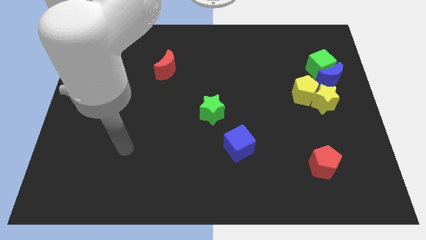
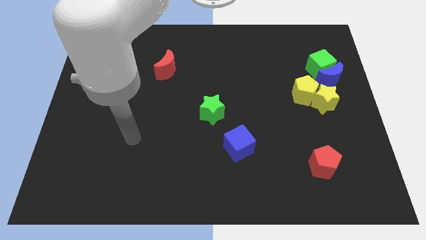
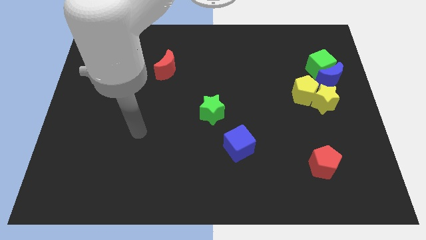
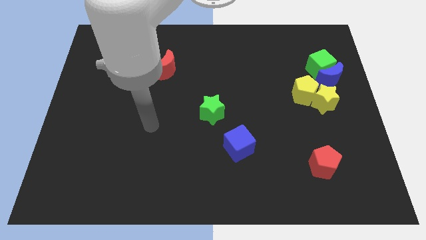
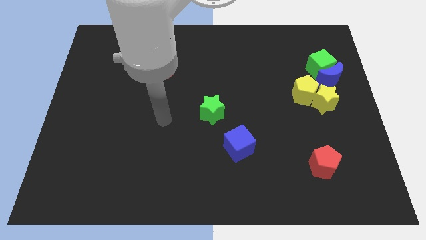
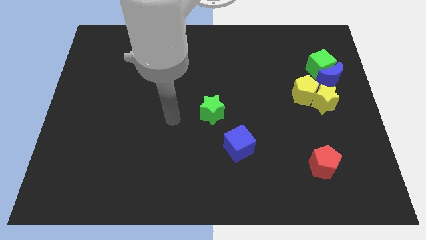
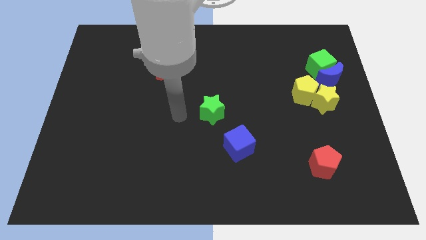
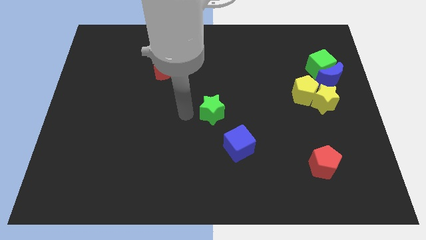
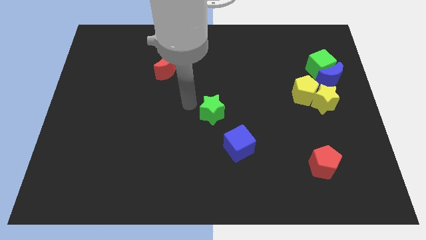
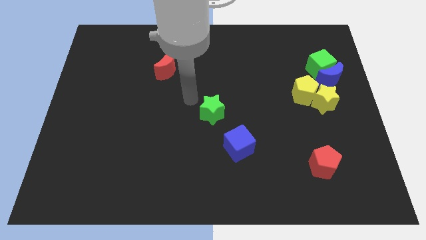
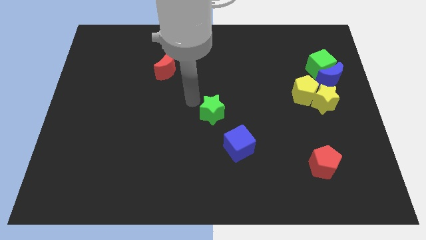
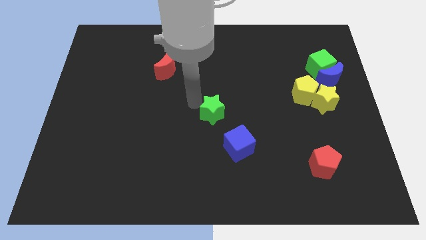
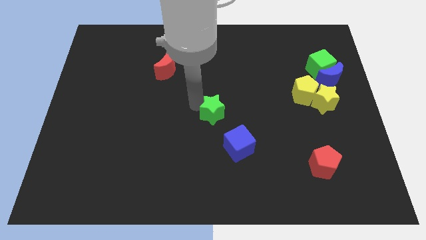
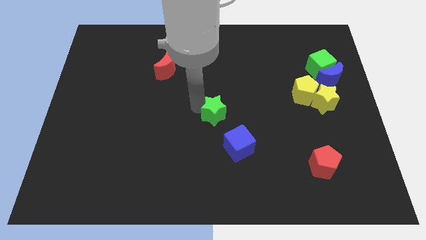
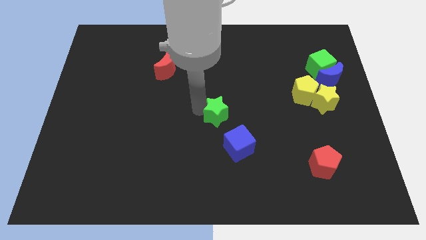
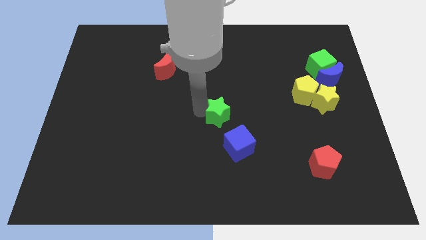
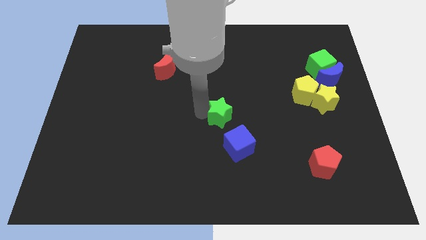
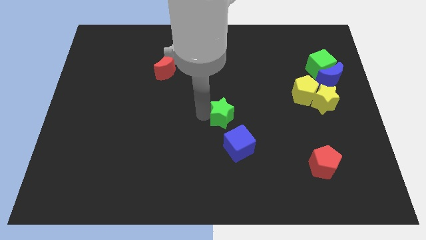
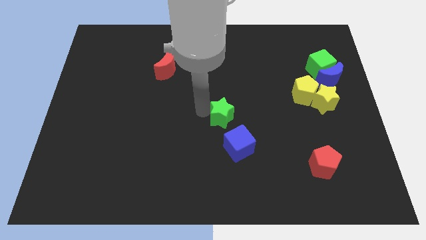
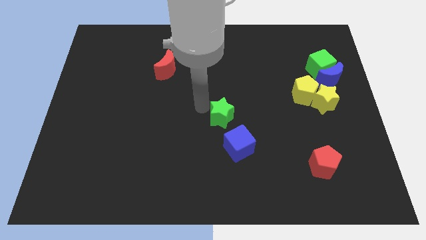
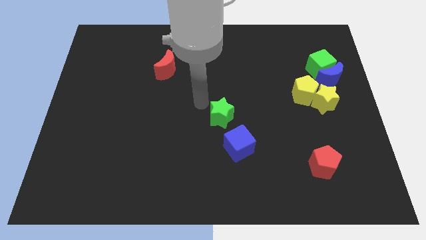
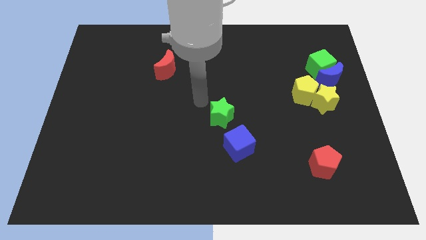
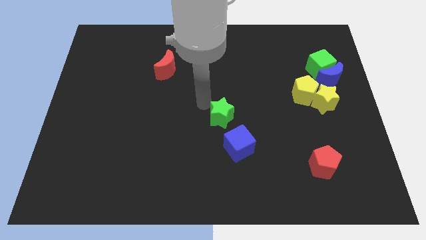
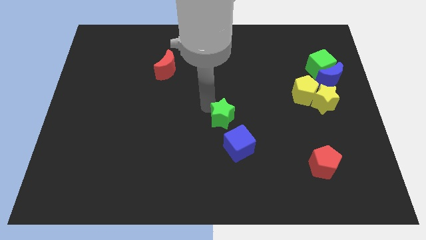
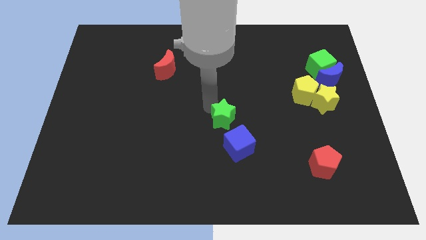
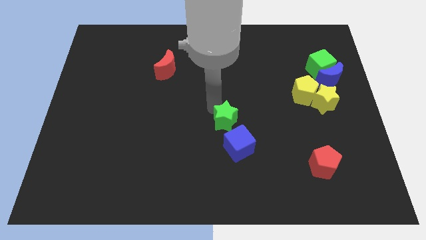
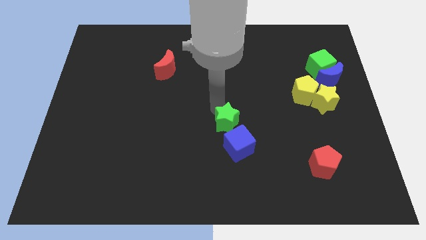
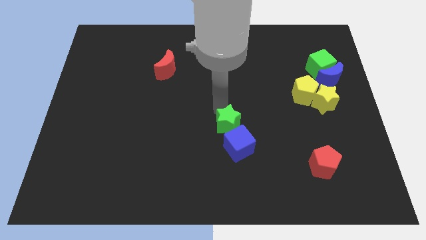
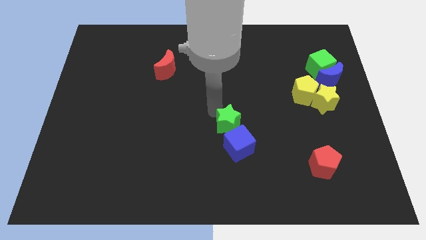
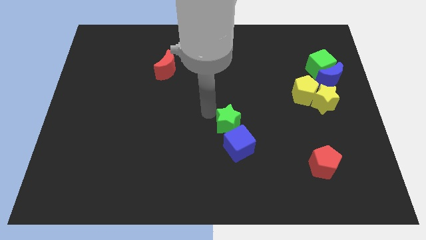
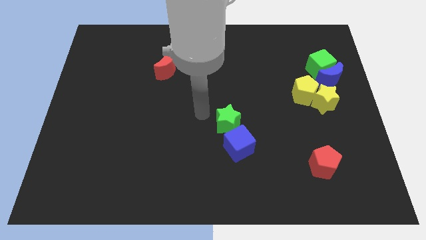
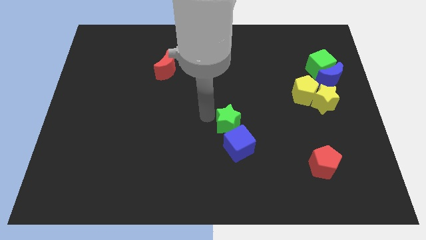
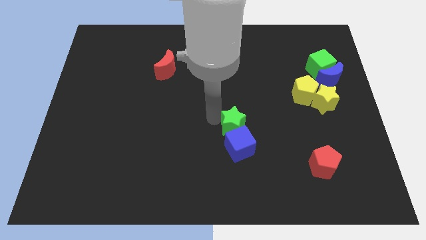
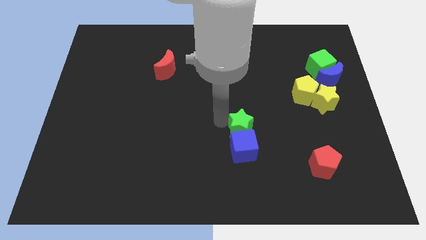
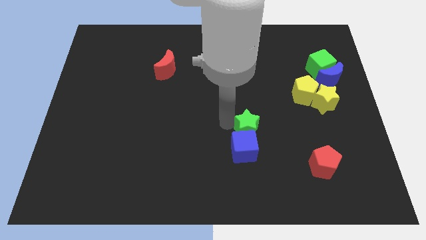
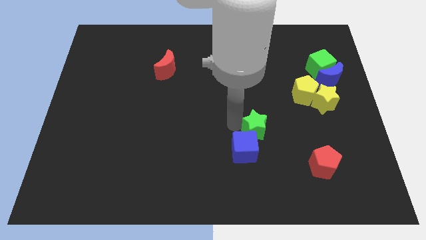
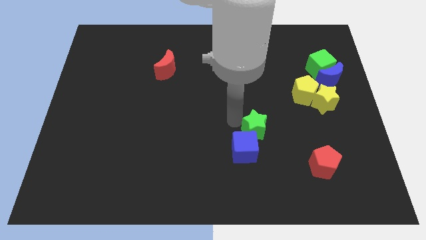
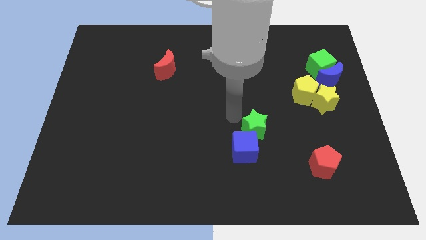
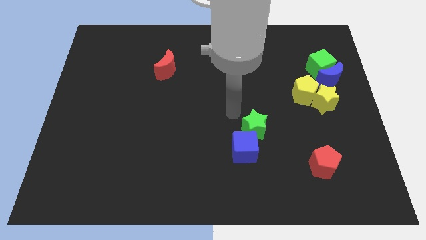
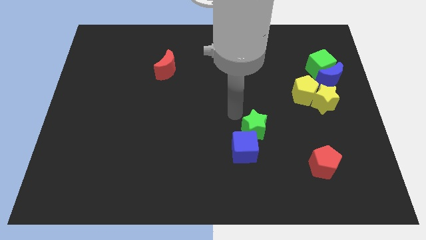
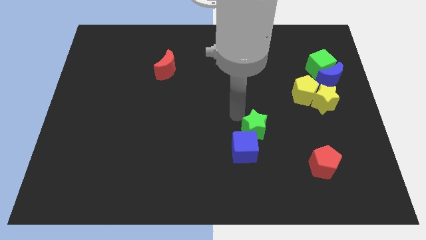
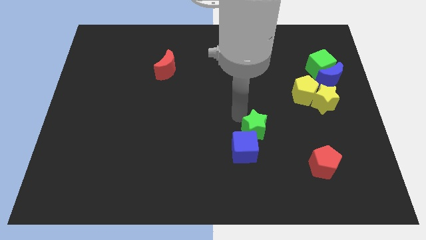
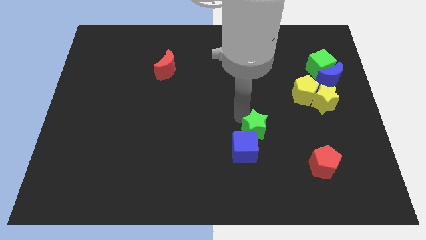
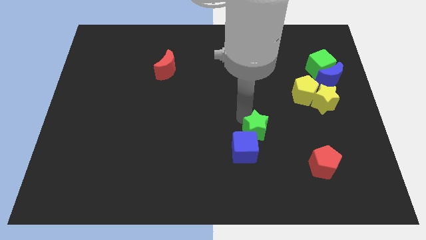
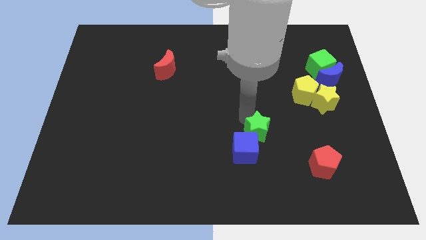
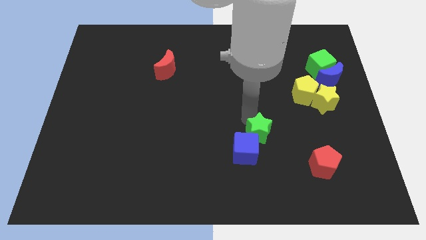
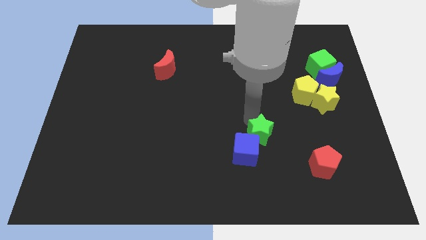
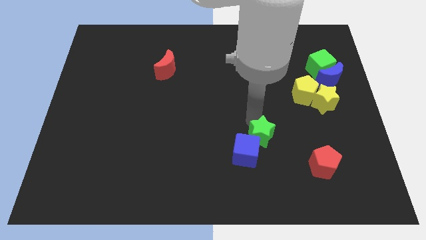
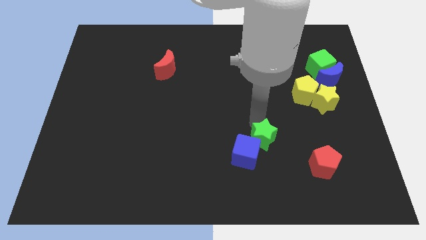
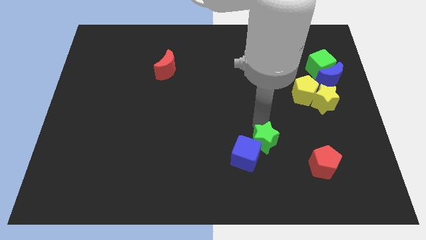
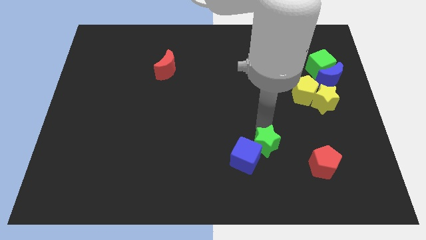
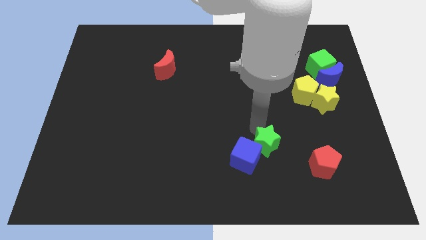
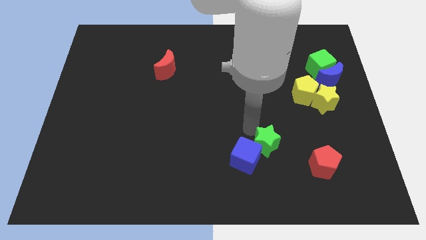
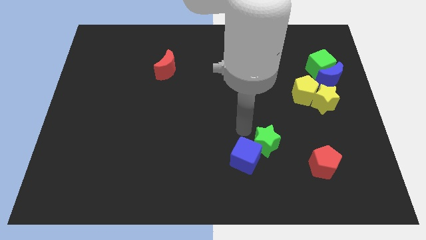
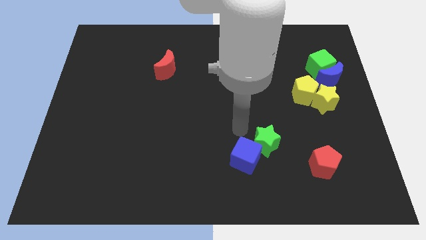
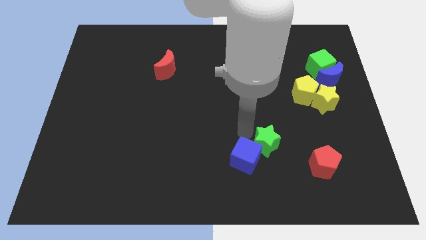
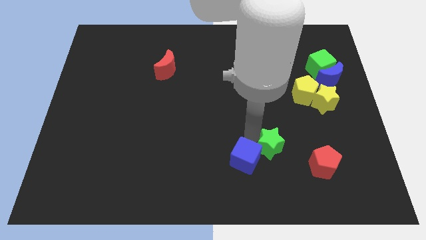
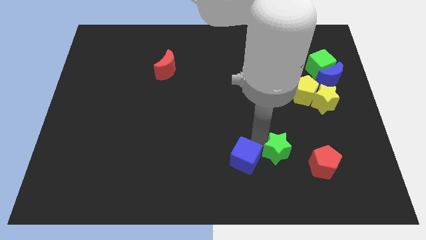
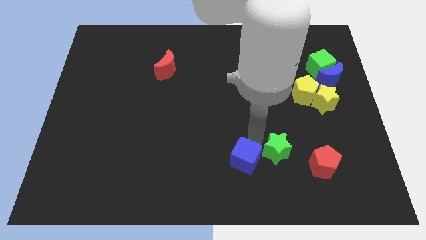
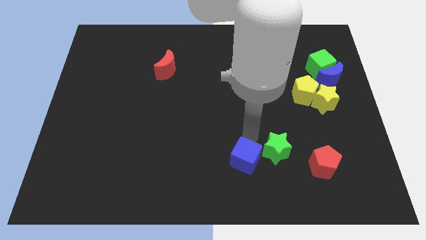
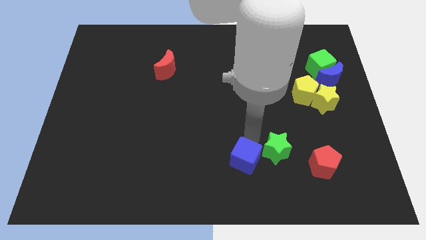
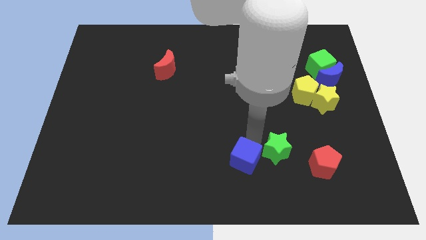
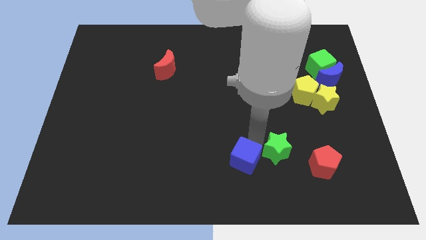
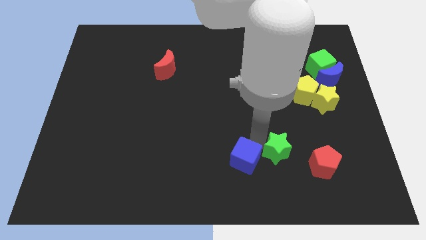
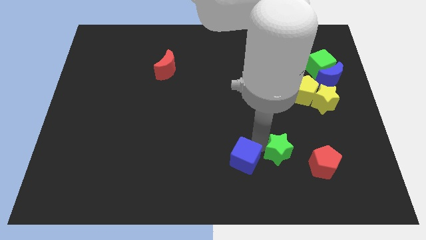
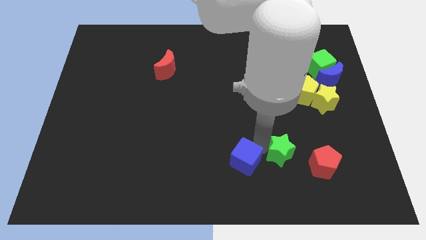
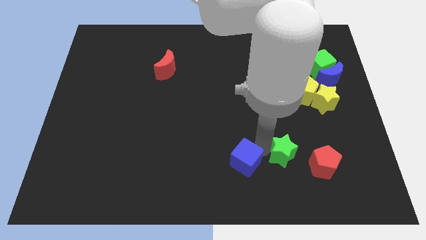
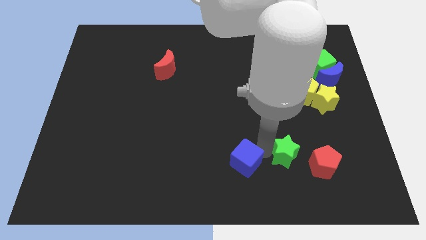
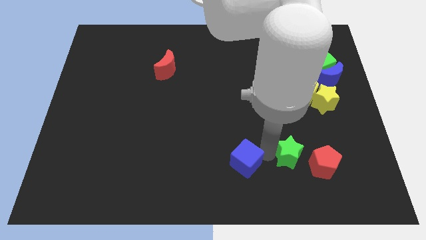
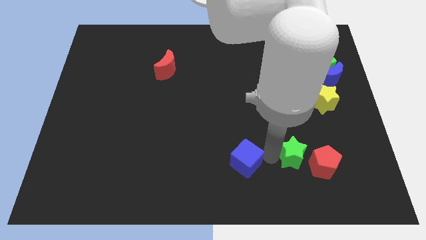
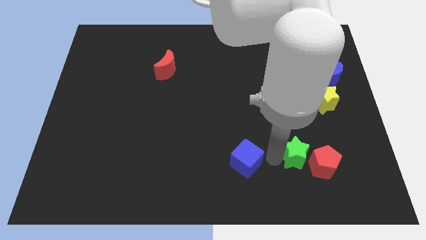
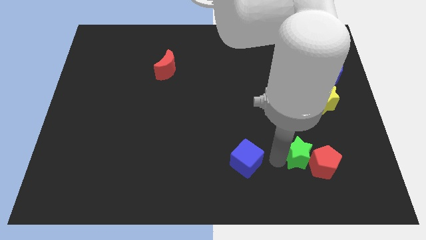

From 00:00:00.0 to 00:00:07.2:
slide the green star to the red pentagon

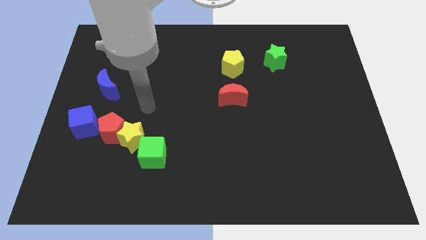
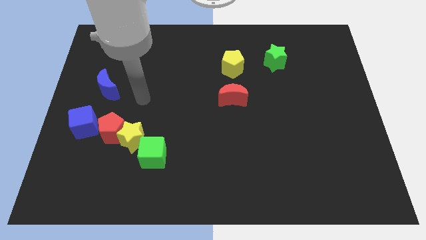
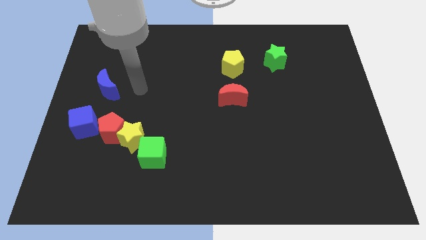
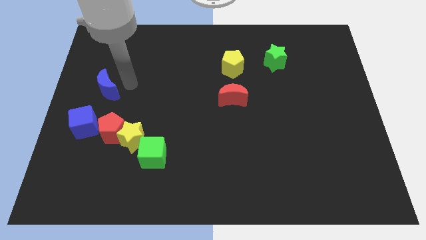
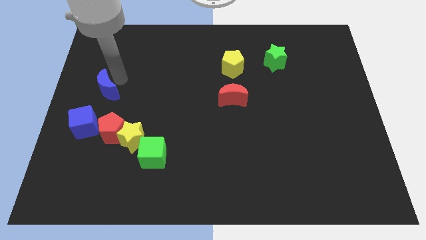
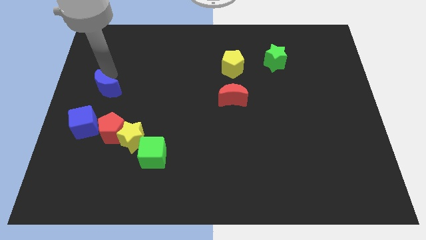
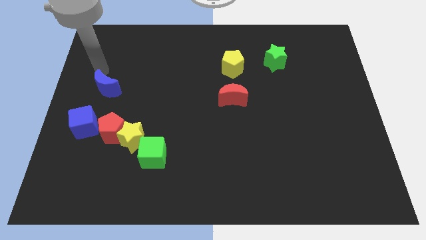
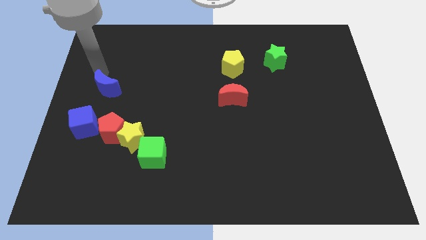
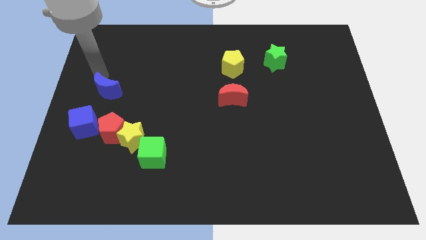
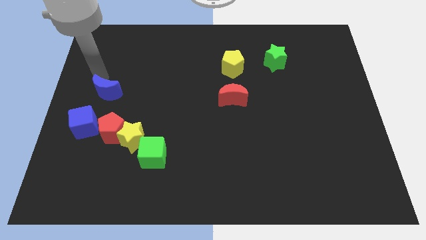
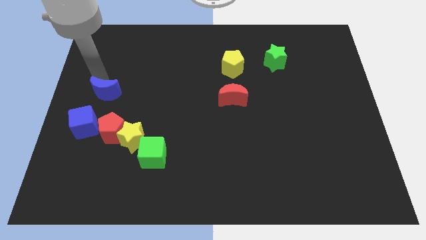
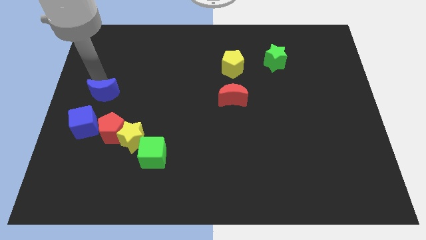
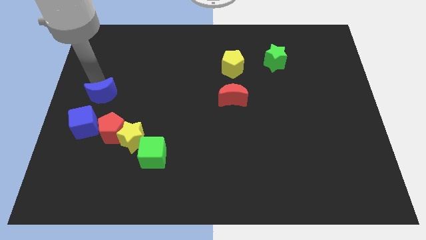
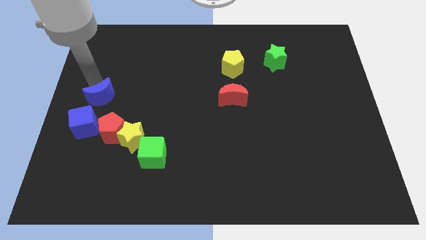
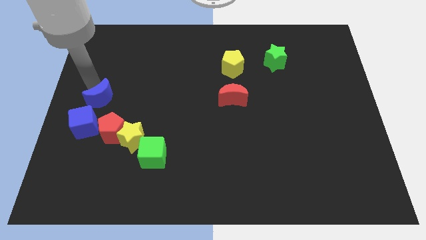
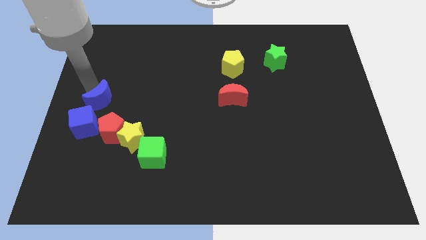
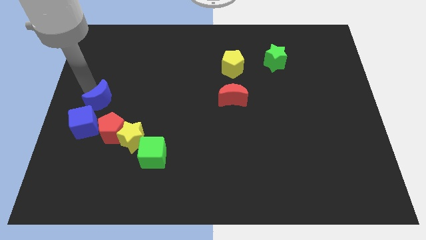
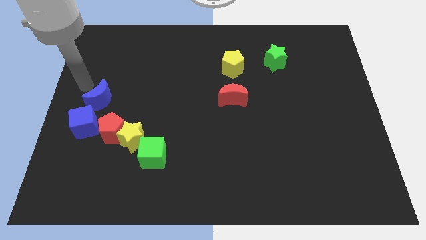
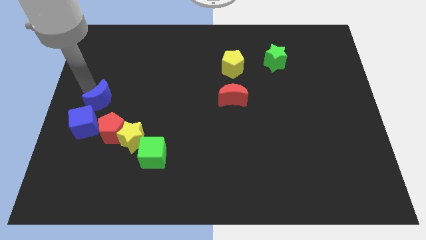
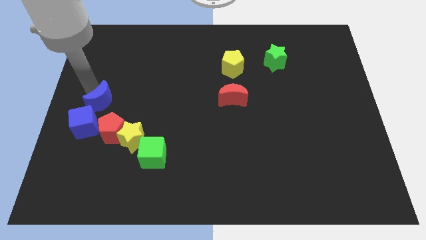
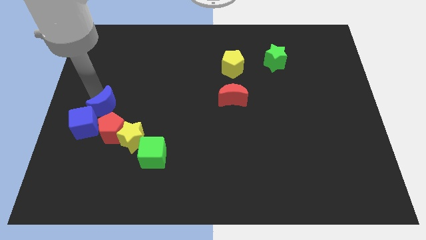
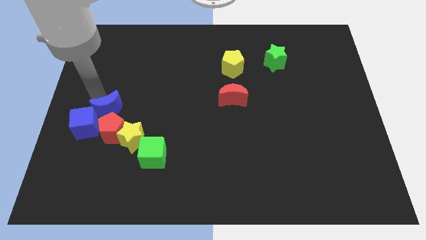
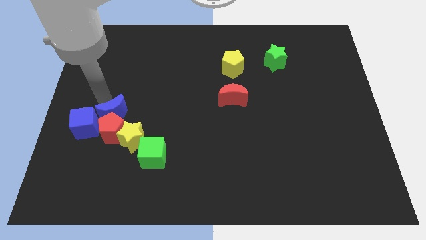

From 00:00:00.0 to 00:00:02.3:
push the blue moon to the red pentagon
